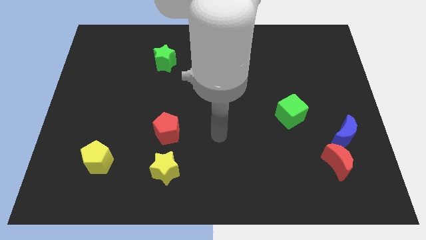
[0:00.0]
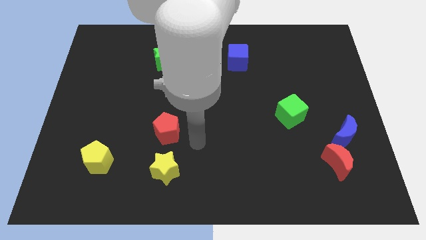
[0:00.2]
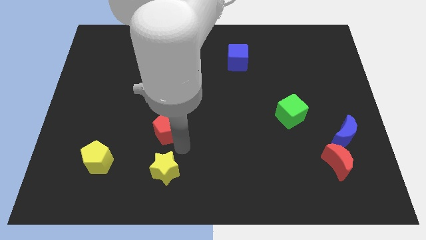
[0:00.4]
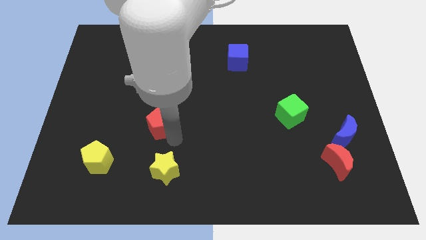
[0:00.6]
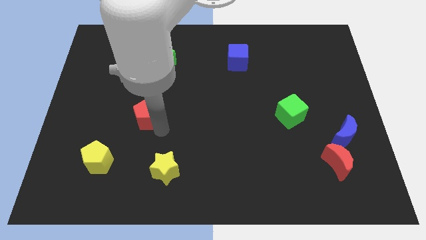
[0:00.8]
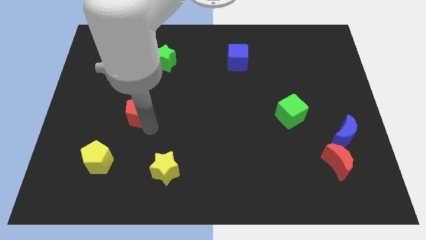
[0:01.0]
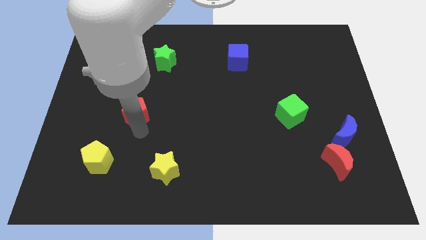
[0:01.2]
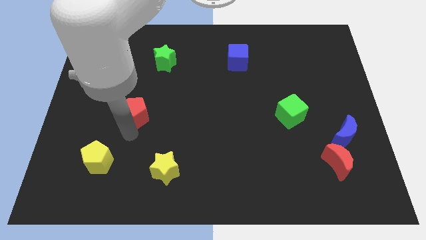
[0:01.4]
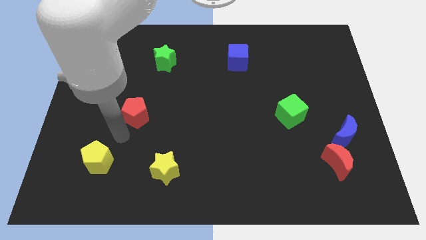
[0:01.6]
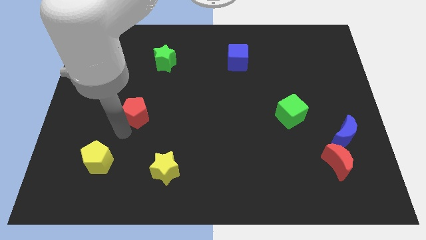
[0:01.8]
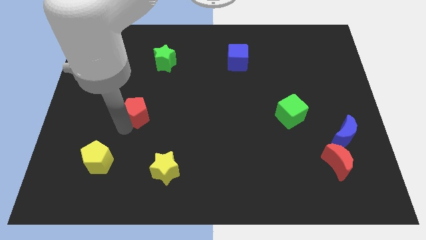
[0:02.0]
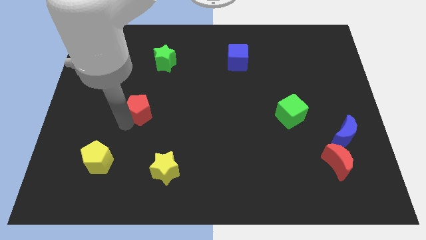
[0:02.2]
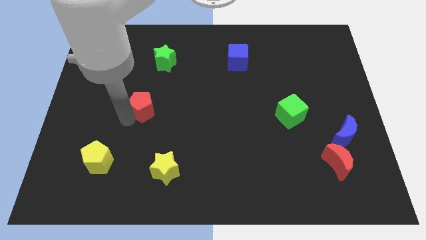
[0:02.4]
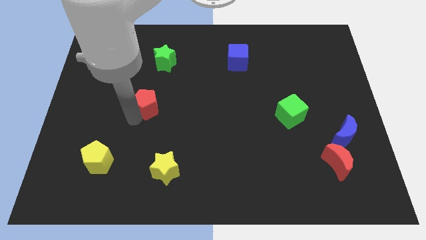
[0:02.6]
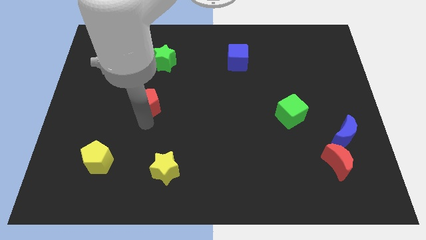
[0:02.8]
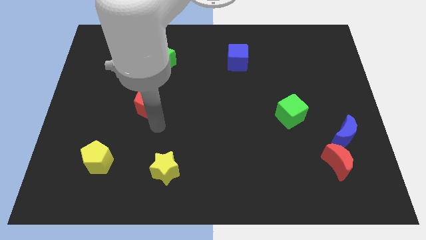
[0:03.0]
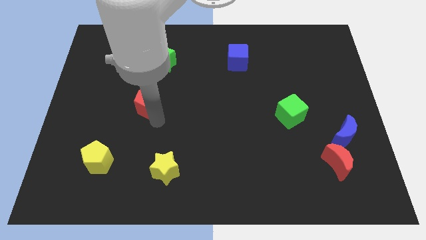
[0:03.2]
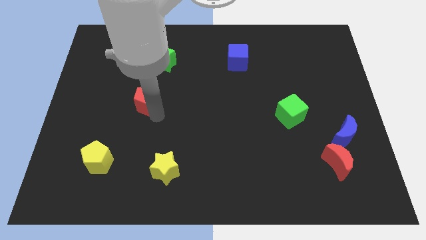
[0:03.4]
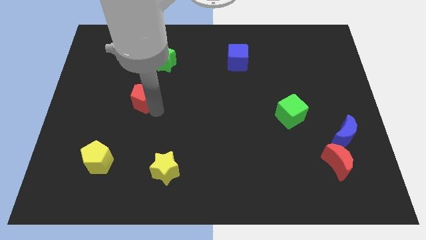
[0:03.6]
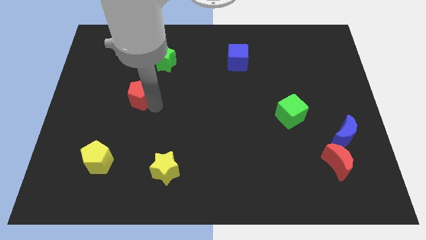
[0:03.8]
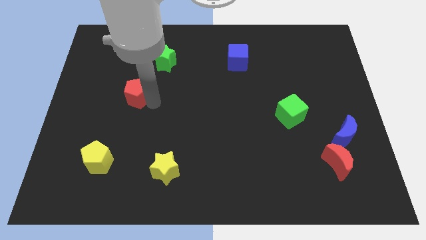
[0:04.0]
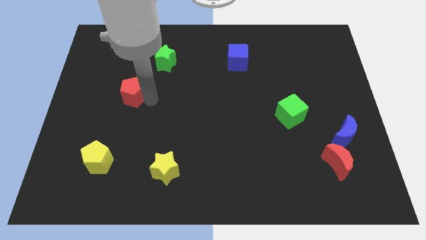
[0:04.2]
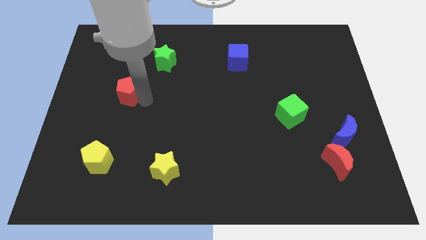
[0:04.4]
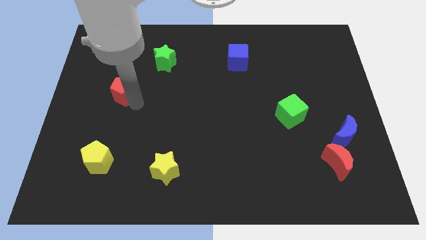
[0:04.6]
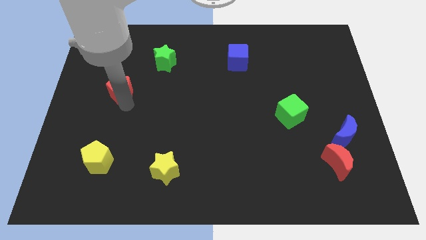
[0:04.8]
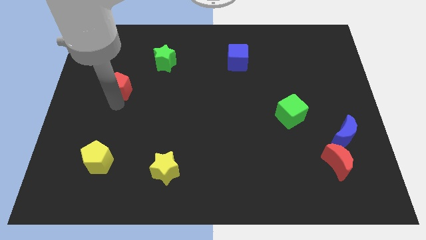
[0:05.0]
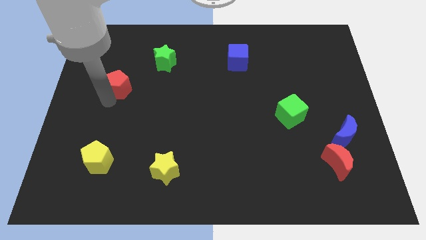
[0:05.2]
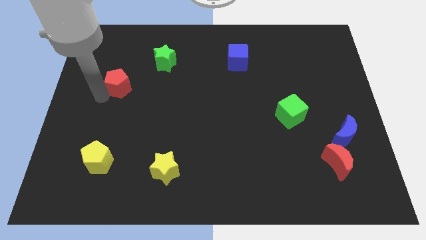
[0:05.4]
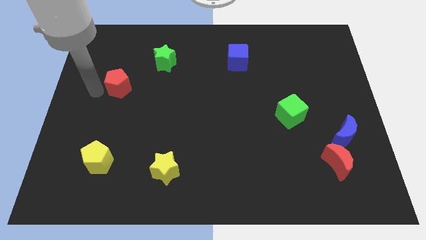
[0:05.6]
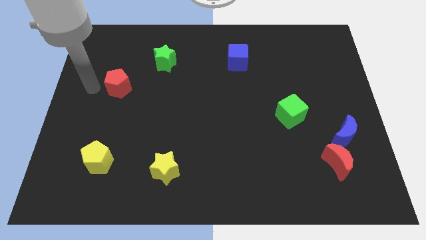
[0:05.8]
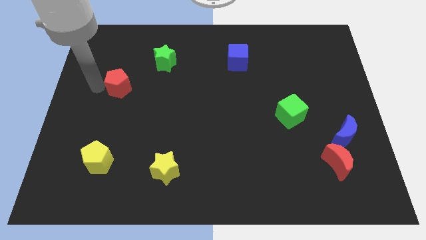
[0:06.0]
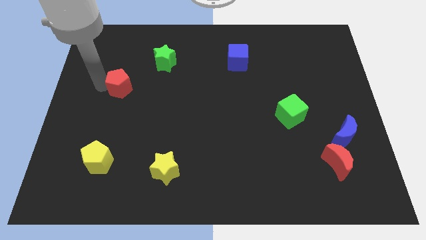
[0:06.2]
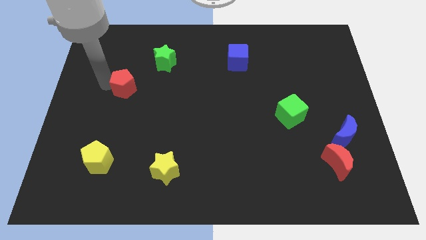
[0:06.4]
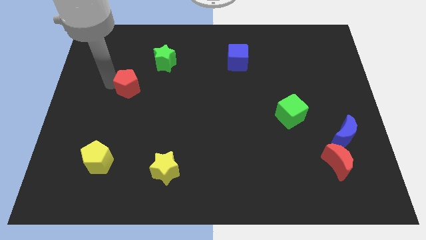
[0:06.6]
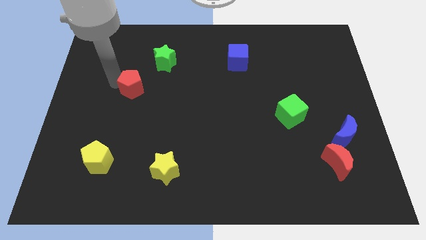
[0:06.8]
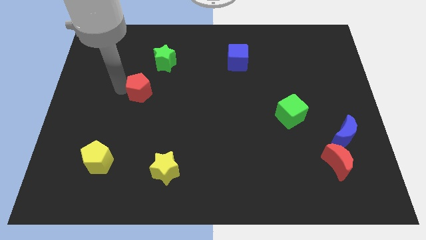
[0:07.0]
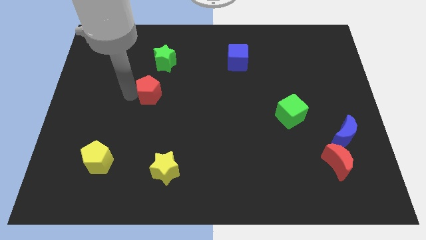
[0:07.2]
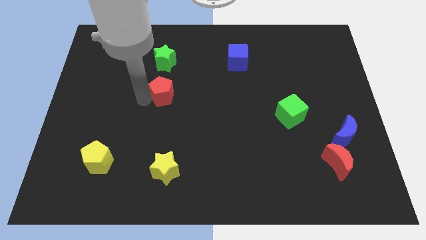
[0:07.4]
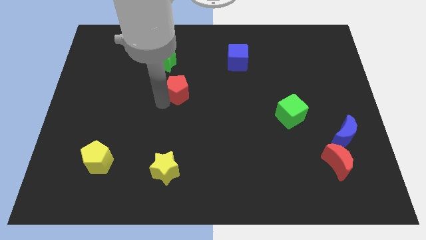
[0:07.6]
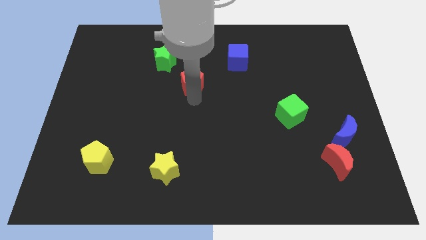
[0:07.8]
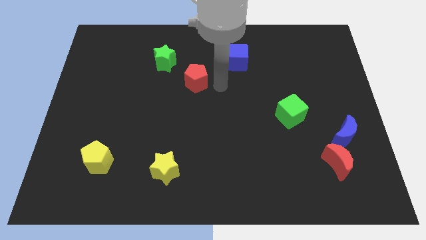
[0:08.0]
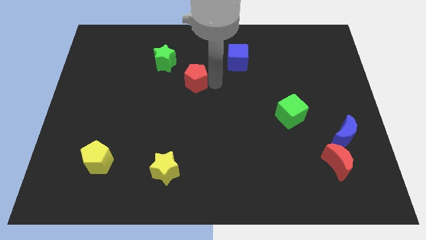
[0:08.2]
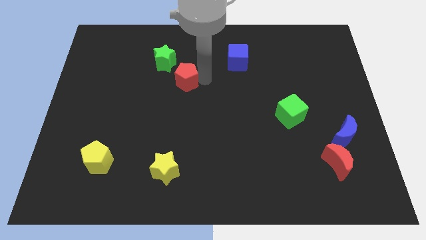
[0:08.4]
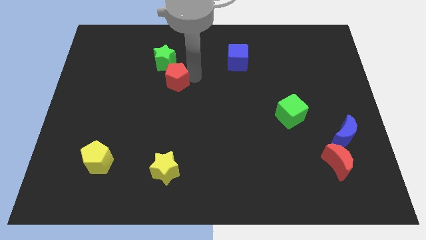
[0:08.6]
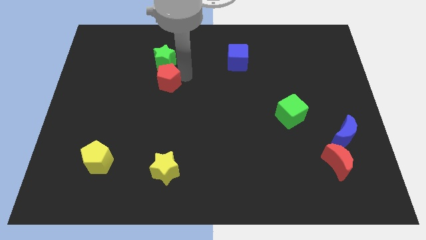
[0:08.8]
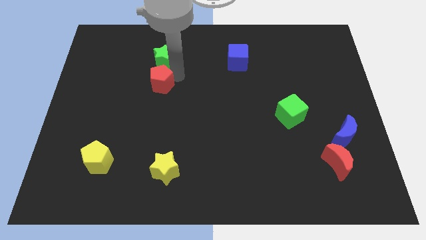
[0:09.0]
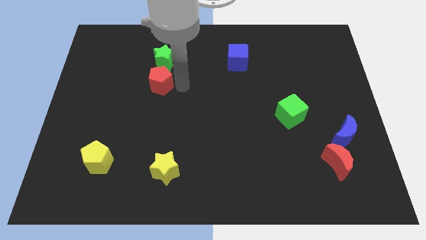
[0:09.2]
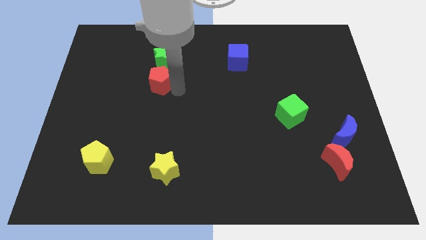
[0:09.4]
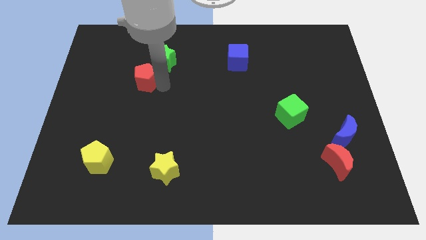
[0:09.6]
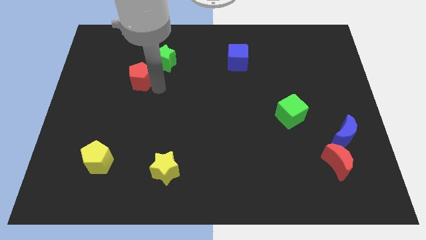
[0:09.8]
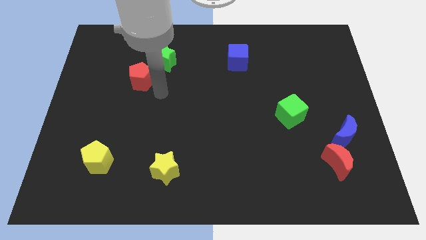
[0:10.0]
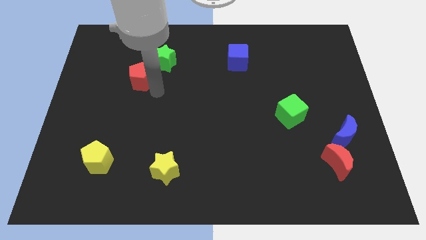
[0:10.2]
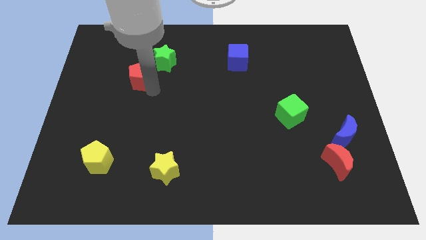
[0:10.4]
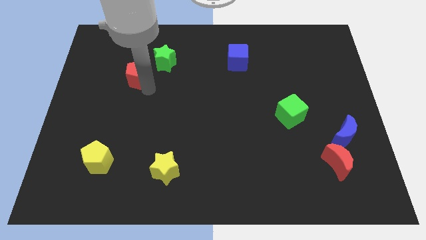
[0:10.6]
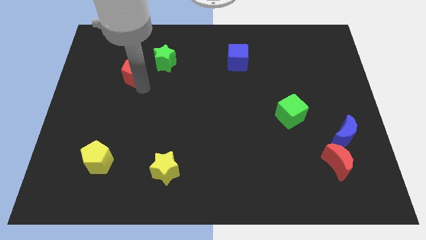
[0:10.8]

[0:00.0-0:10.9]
slide the red pentagon to the left of the green star
